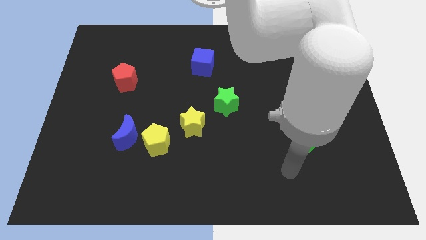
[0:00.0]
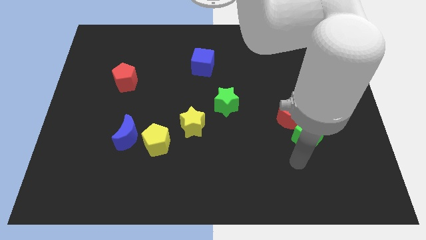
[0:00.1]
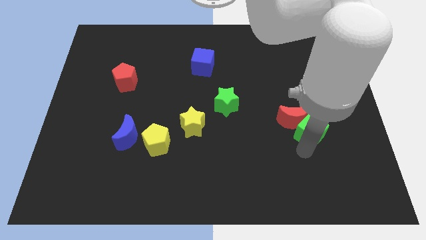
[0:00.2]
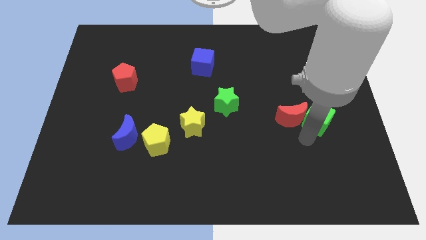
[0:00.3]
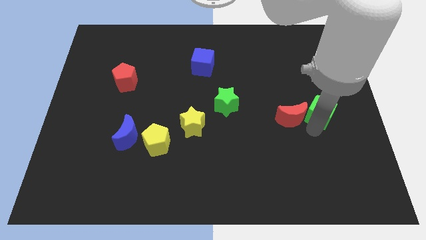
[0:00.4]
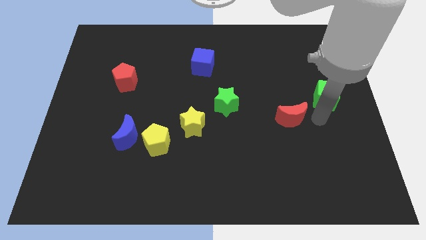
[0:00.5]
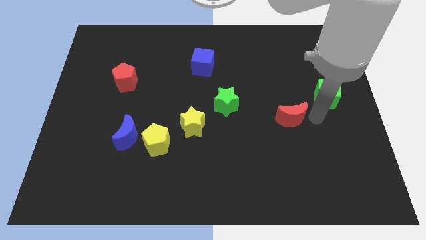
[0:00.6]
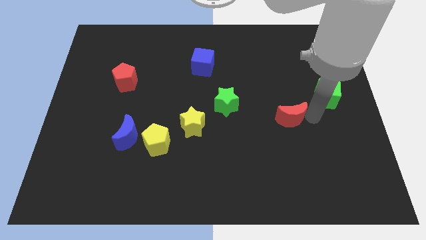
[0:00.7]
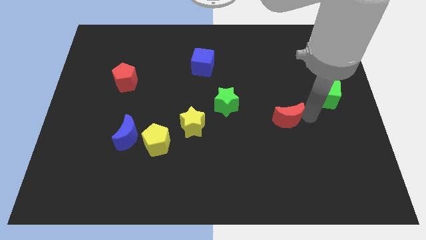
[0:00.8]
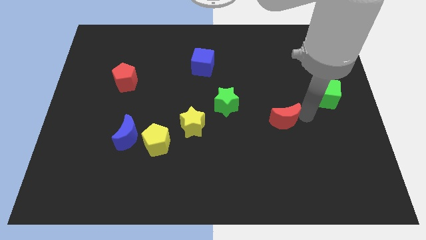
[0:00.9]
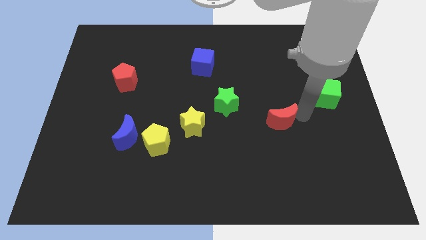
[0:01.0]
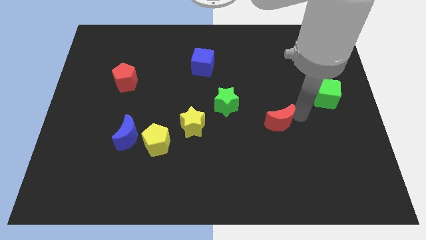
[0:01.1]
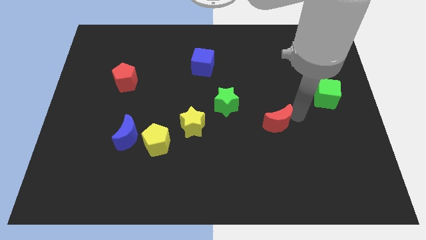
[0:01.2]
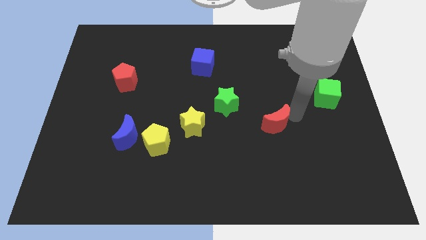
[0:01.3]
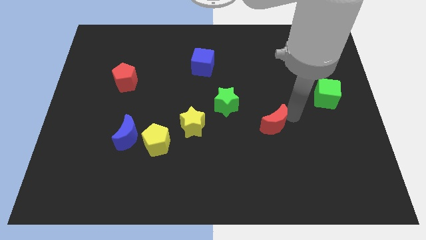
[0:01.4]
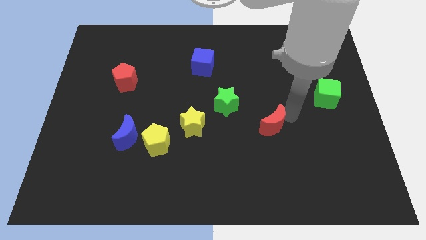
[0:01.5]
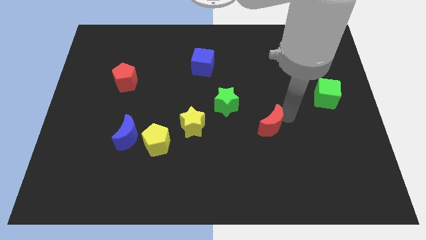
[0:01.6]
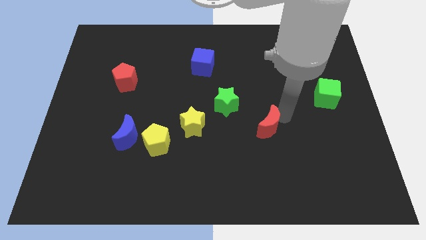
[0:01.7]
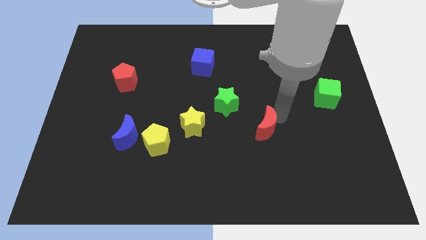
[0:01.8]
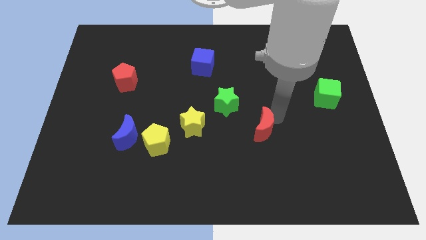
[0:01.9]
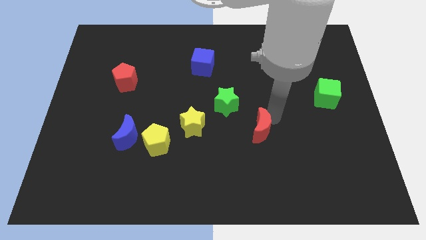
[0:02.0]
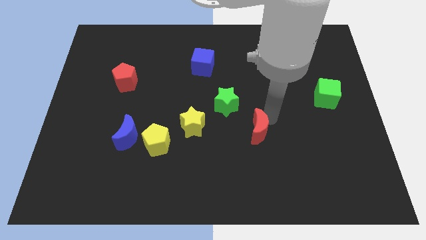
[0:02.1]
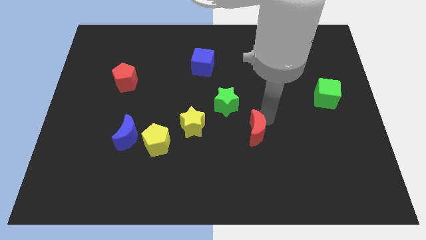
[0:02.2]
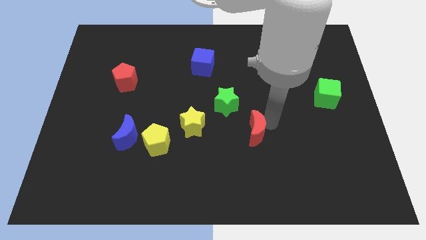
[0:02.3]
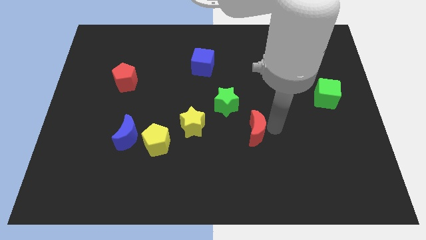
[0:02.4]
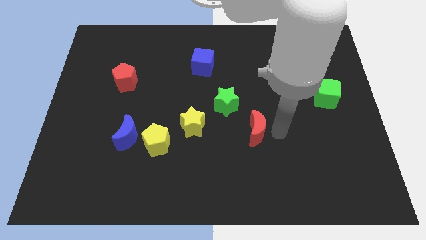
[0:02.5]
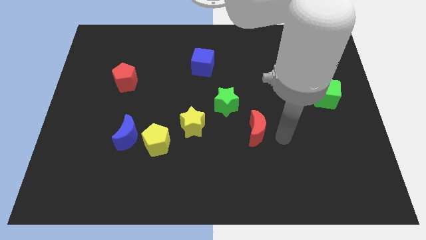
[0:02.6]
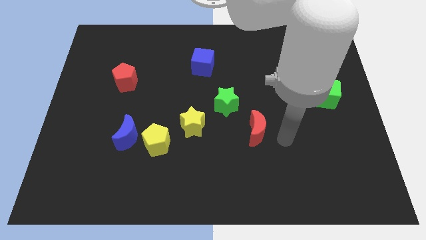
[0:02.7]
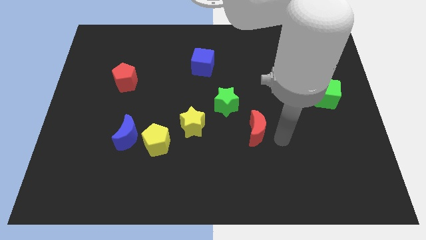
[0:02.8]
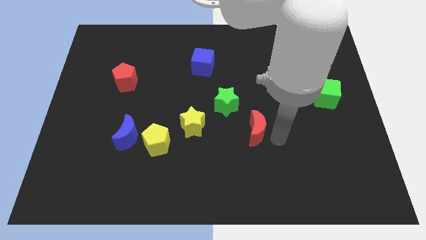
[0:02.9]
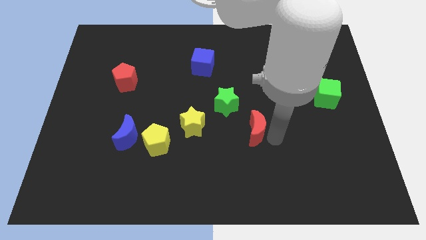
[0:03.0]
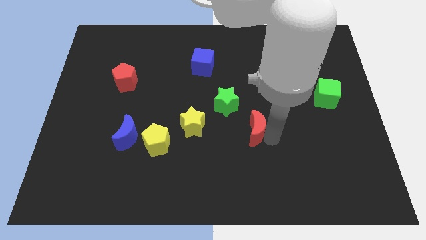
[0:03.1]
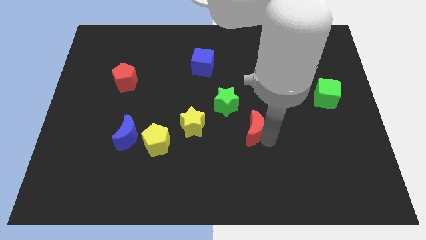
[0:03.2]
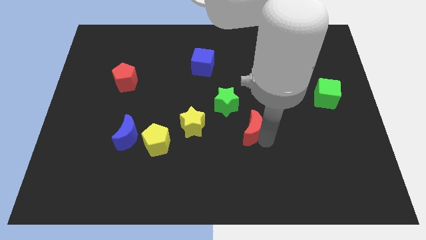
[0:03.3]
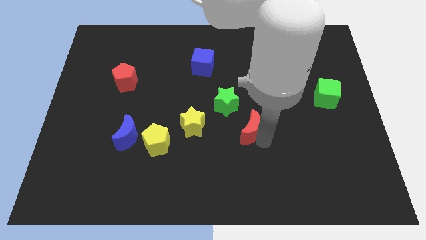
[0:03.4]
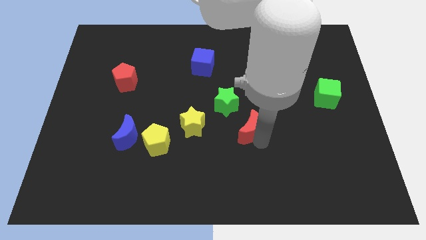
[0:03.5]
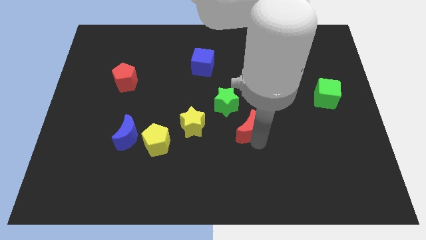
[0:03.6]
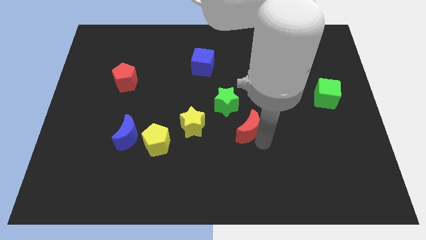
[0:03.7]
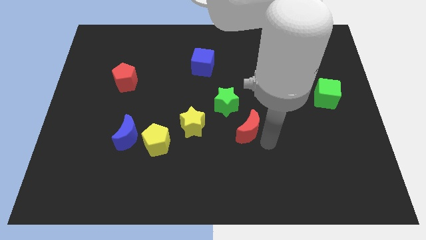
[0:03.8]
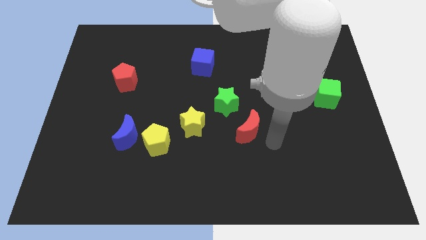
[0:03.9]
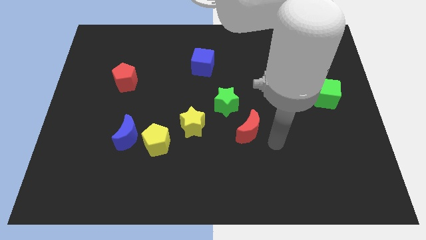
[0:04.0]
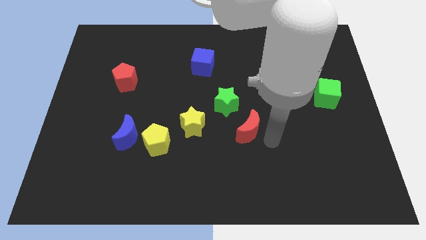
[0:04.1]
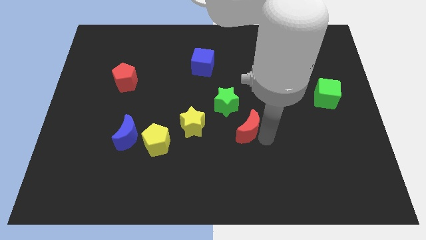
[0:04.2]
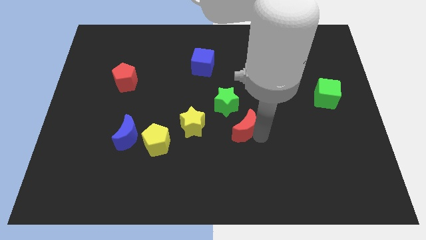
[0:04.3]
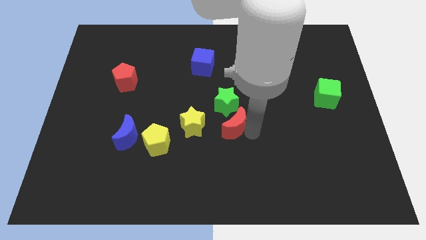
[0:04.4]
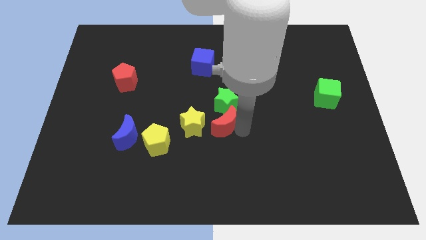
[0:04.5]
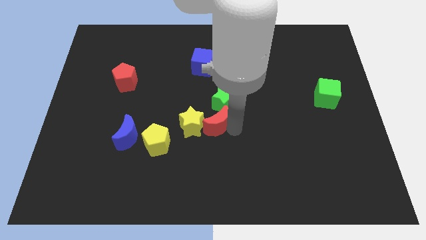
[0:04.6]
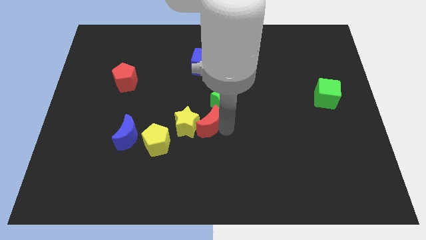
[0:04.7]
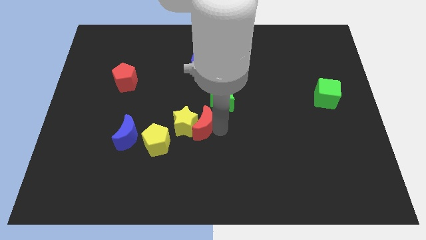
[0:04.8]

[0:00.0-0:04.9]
push the red moon to the left

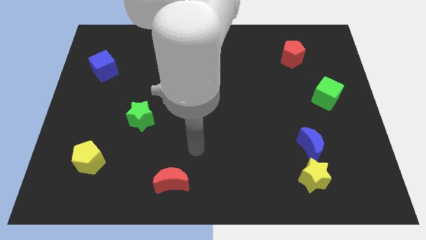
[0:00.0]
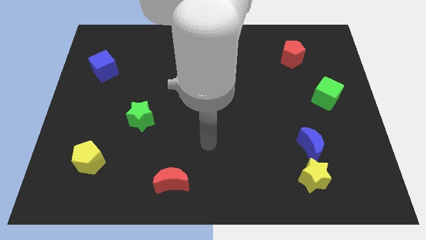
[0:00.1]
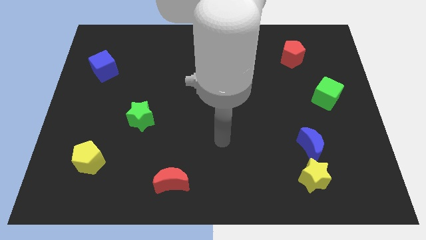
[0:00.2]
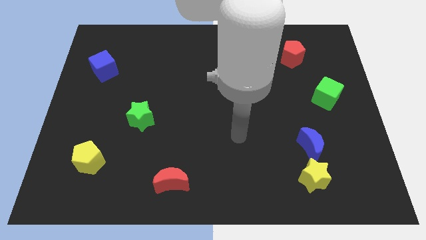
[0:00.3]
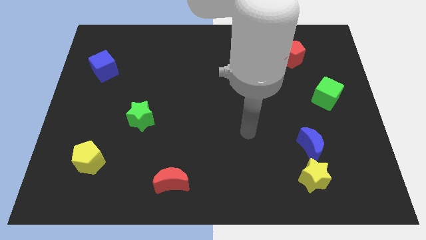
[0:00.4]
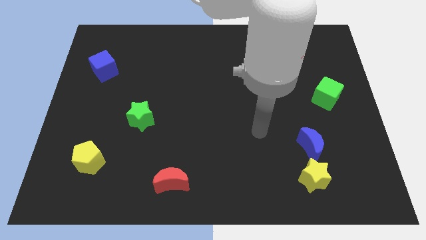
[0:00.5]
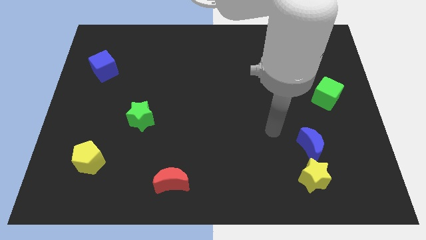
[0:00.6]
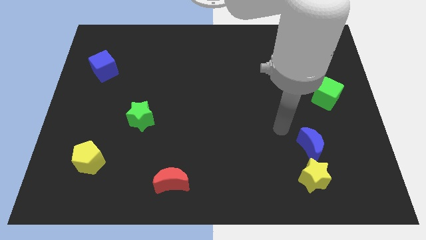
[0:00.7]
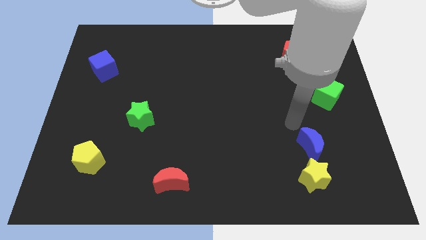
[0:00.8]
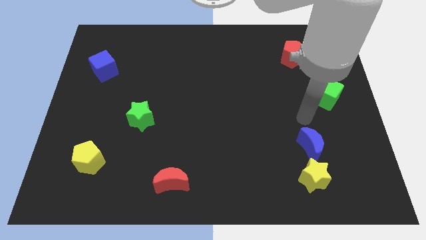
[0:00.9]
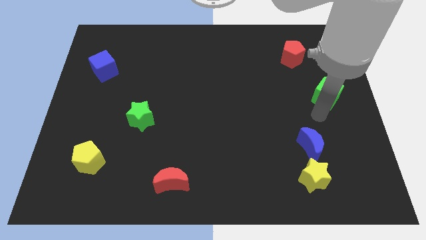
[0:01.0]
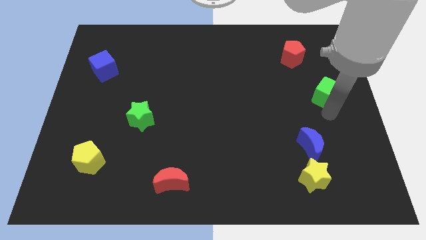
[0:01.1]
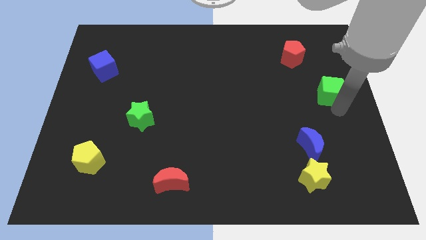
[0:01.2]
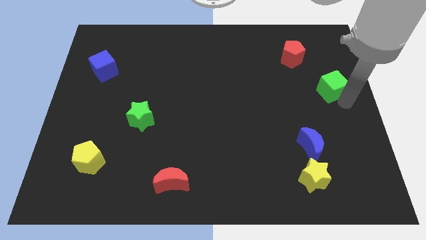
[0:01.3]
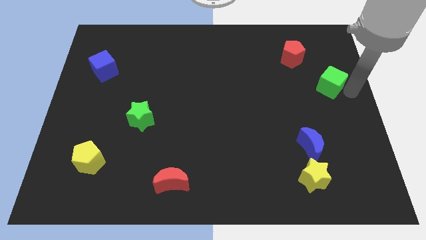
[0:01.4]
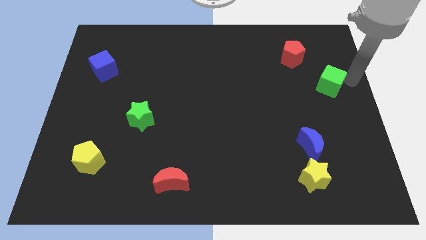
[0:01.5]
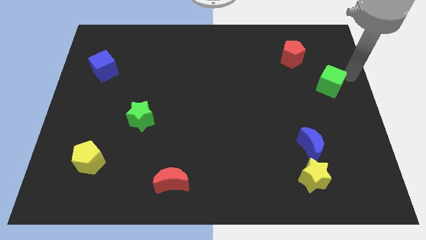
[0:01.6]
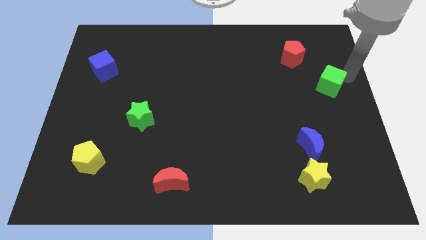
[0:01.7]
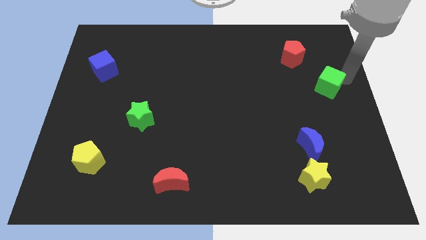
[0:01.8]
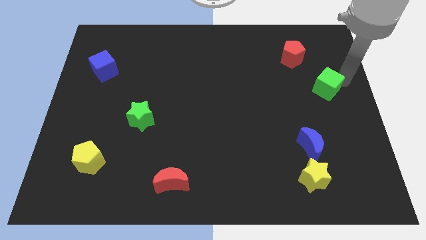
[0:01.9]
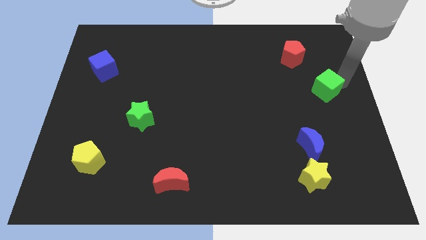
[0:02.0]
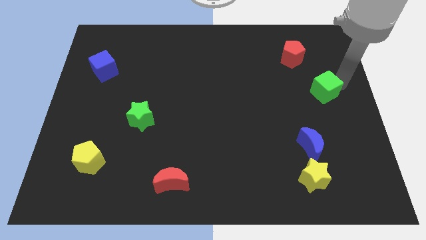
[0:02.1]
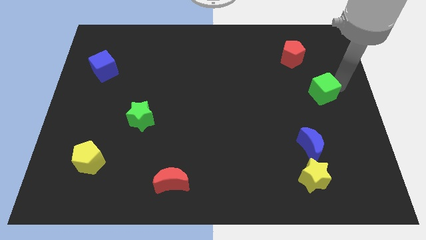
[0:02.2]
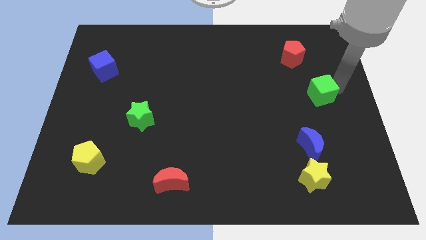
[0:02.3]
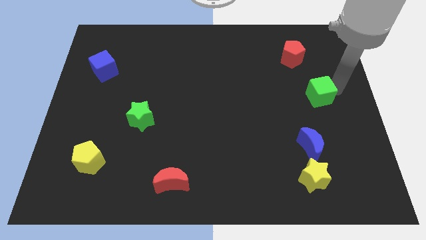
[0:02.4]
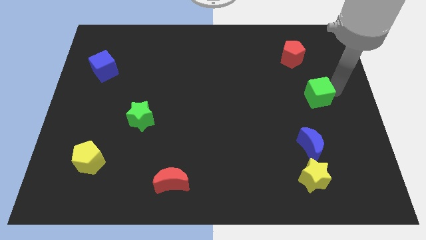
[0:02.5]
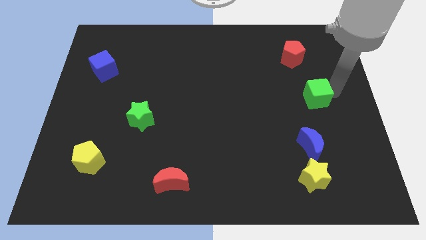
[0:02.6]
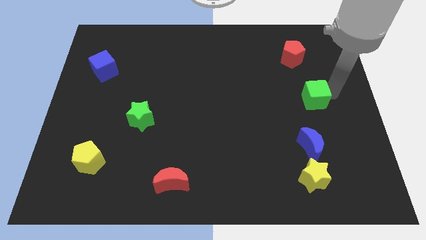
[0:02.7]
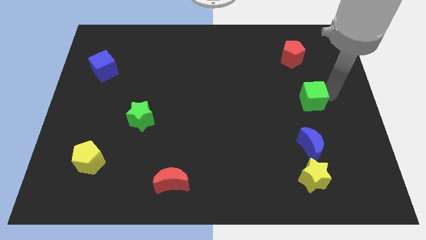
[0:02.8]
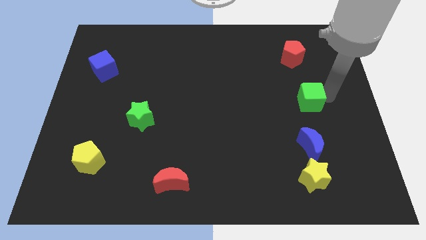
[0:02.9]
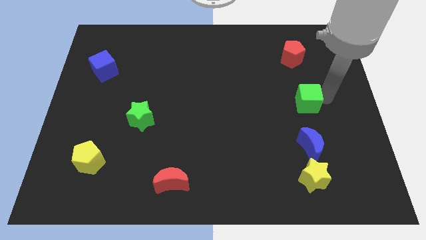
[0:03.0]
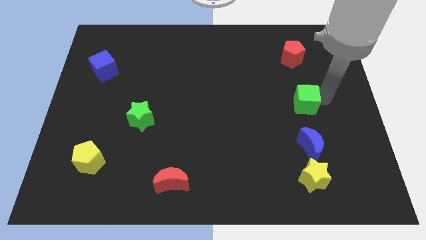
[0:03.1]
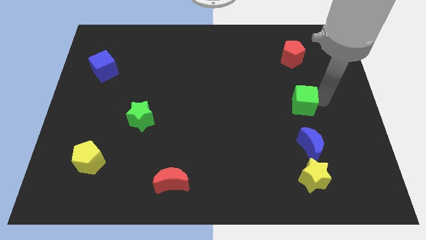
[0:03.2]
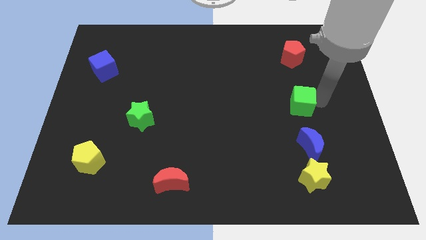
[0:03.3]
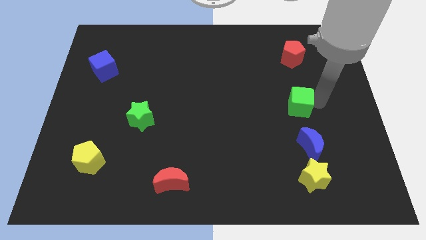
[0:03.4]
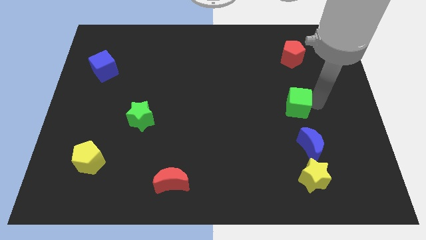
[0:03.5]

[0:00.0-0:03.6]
move the green cube left slightly
